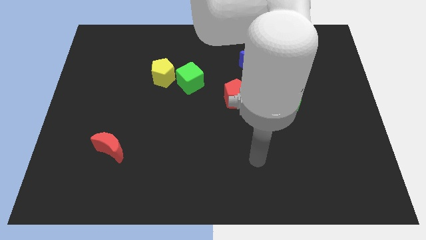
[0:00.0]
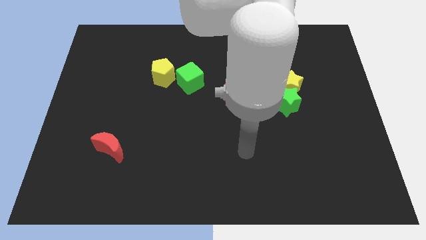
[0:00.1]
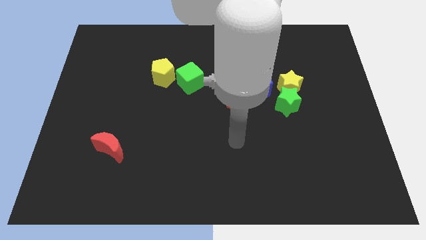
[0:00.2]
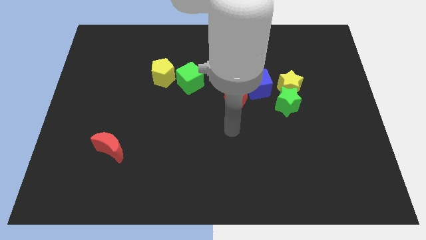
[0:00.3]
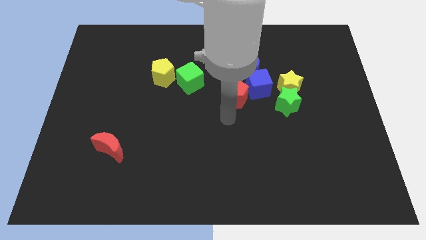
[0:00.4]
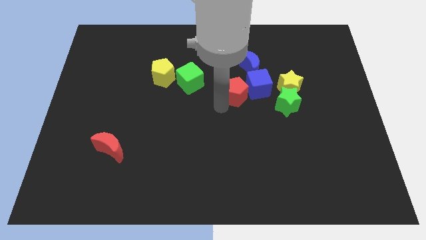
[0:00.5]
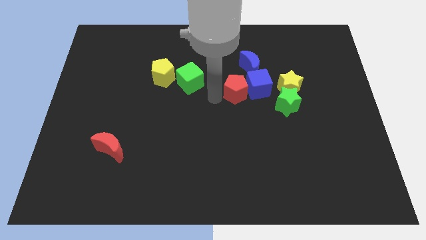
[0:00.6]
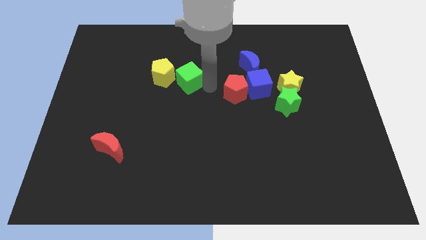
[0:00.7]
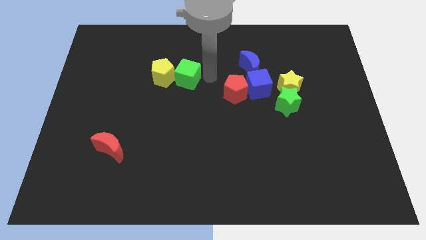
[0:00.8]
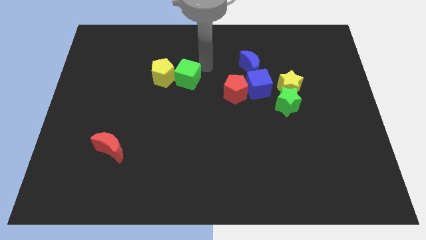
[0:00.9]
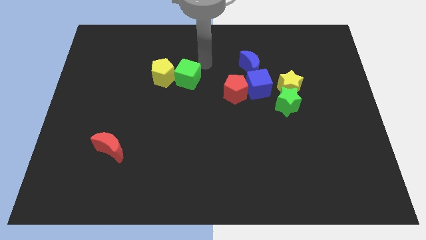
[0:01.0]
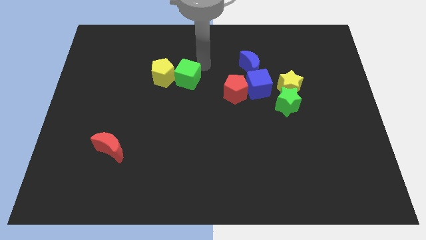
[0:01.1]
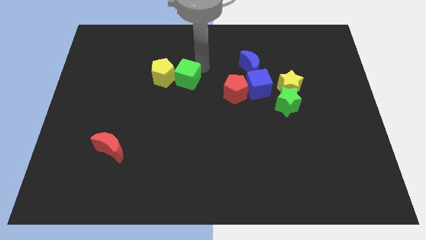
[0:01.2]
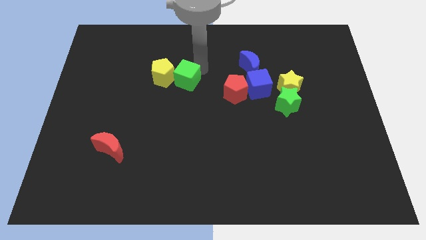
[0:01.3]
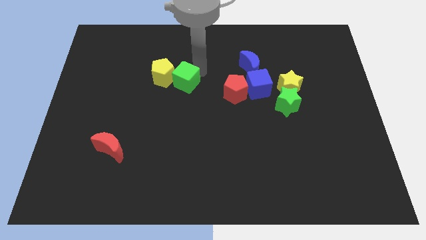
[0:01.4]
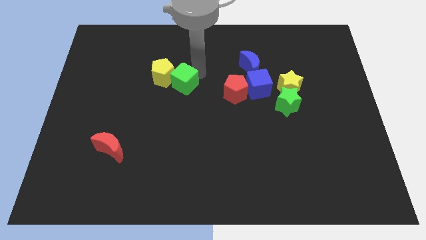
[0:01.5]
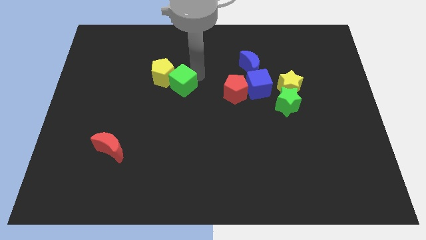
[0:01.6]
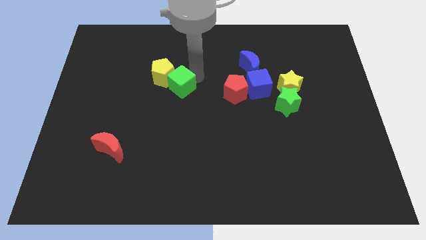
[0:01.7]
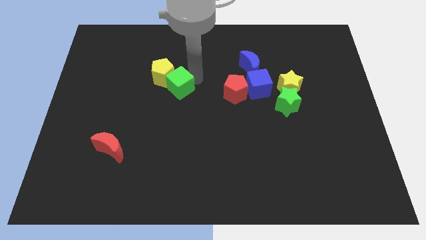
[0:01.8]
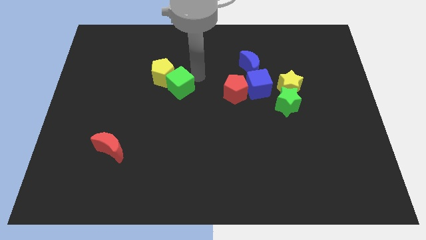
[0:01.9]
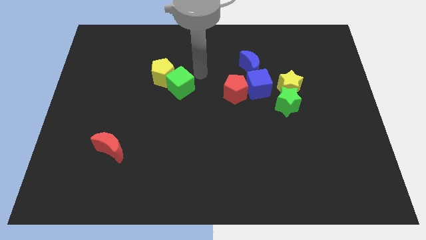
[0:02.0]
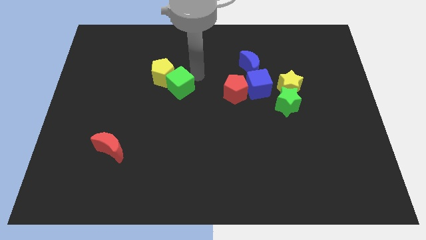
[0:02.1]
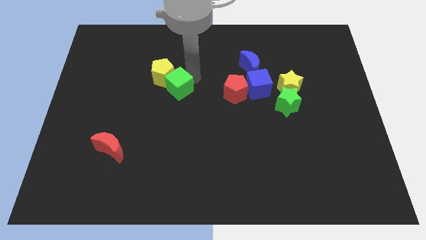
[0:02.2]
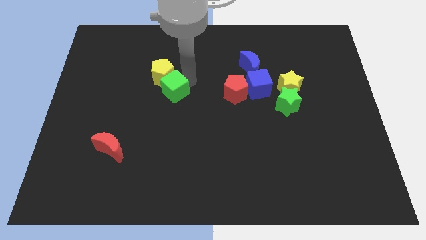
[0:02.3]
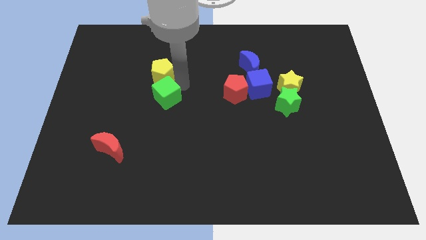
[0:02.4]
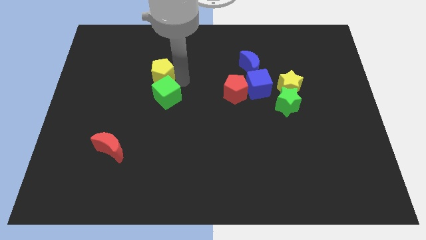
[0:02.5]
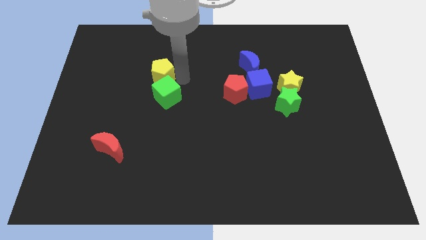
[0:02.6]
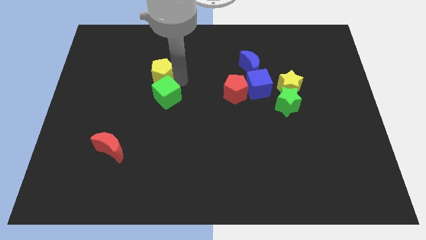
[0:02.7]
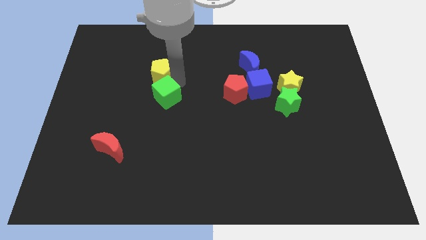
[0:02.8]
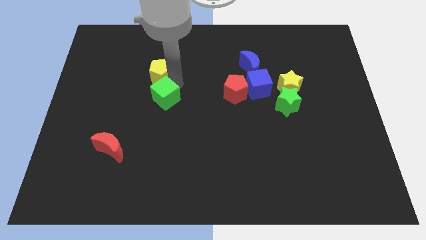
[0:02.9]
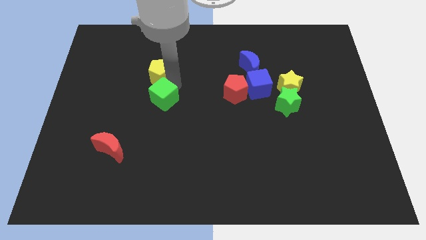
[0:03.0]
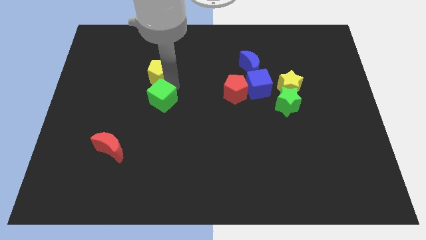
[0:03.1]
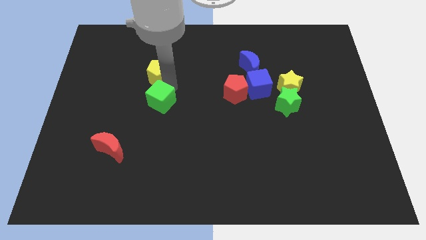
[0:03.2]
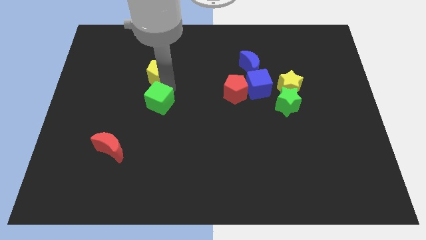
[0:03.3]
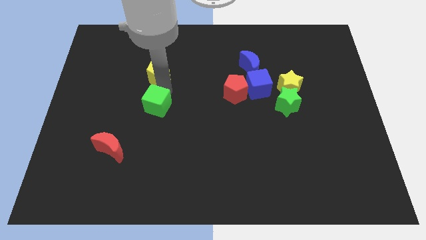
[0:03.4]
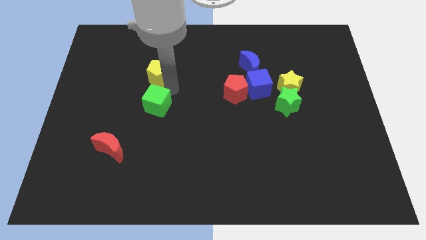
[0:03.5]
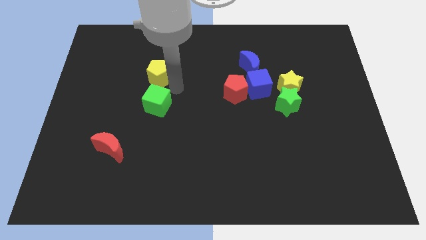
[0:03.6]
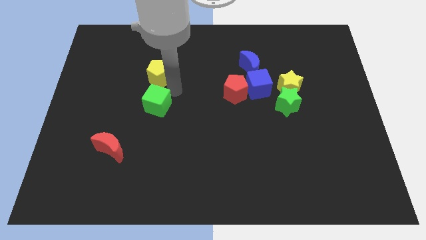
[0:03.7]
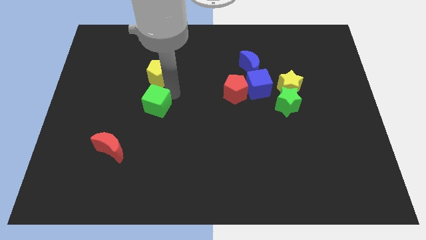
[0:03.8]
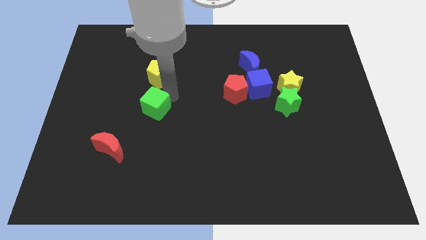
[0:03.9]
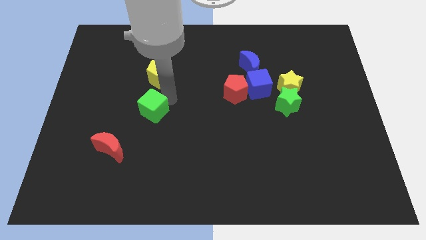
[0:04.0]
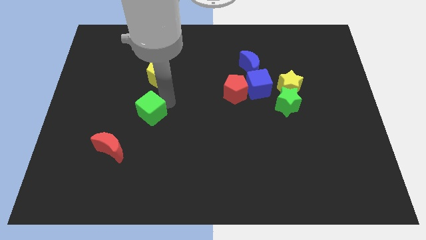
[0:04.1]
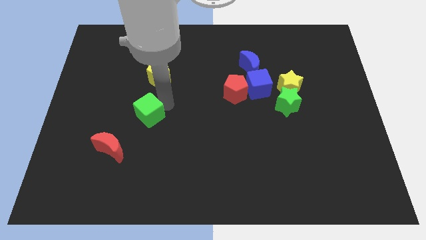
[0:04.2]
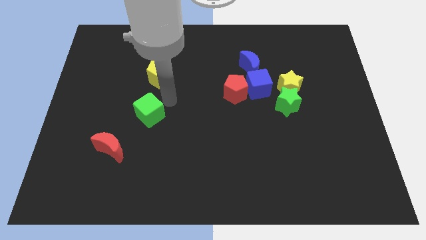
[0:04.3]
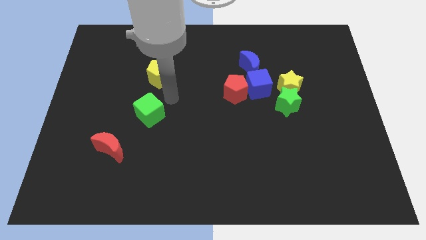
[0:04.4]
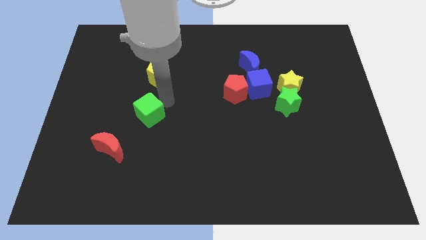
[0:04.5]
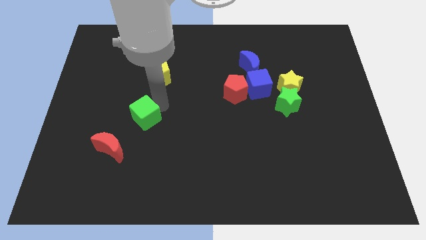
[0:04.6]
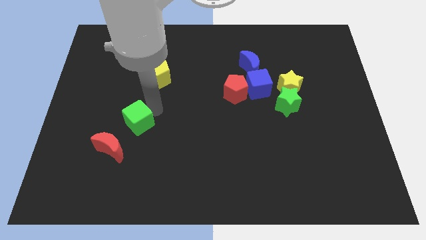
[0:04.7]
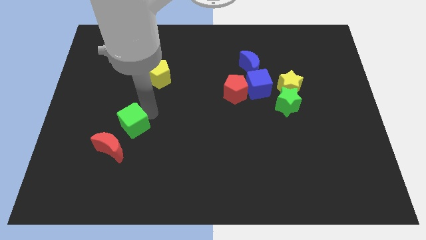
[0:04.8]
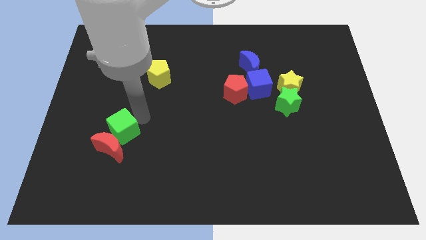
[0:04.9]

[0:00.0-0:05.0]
move the green cube next to the red moon

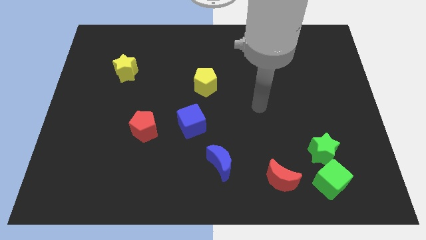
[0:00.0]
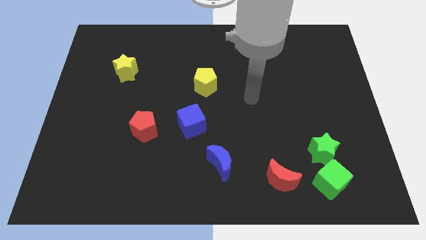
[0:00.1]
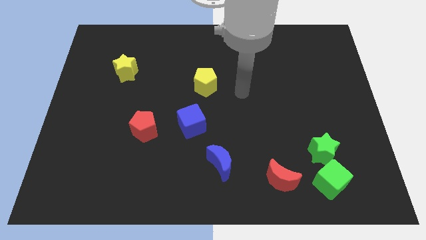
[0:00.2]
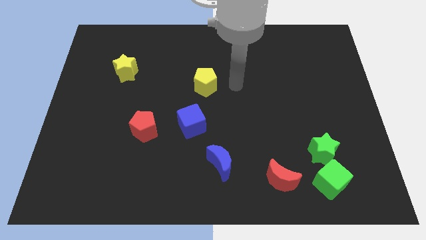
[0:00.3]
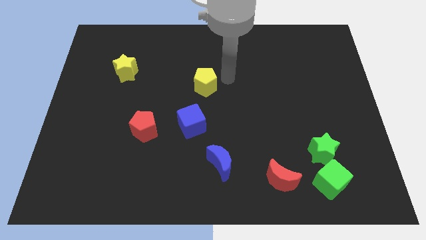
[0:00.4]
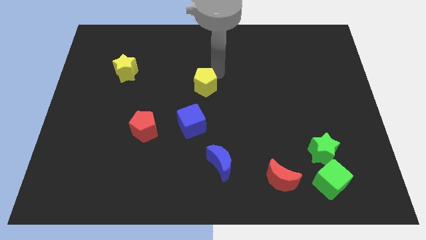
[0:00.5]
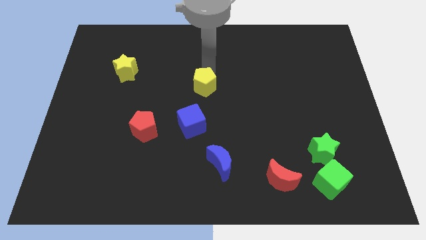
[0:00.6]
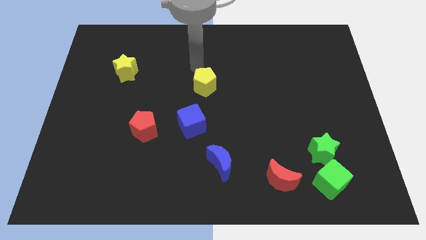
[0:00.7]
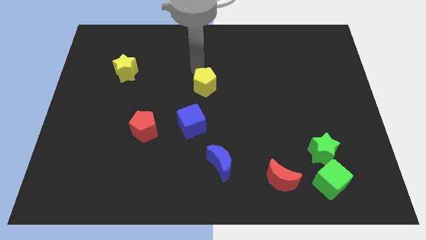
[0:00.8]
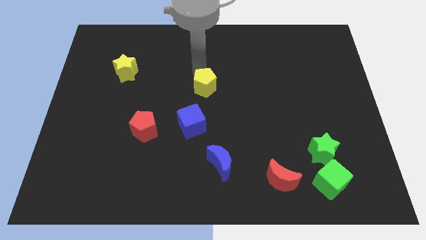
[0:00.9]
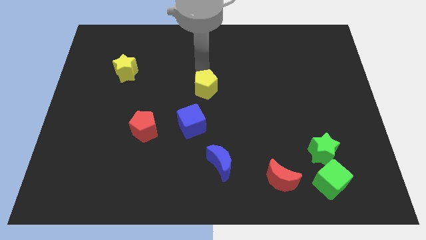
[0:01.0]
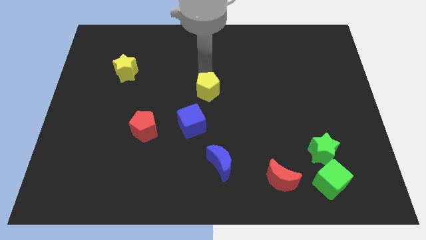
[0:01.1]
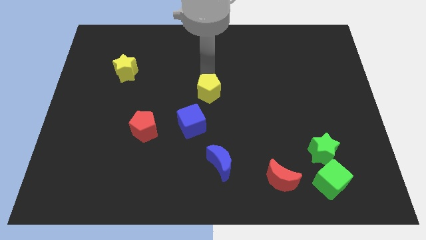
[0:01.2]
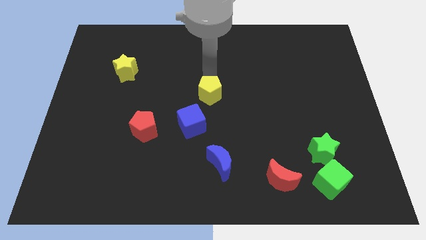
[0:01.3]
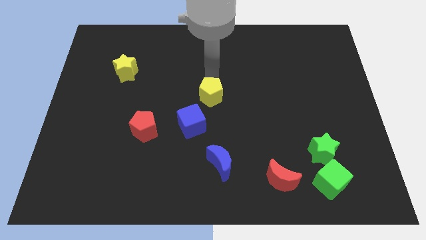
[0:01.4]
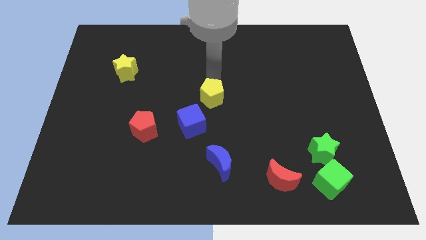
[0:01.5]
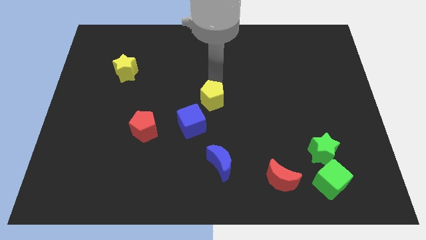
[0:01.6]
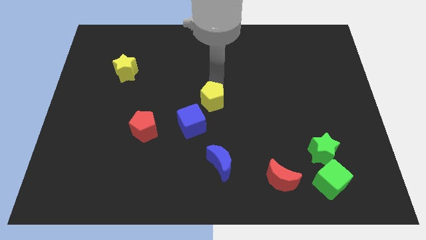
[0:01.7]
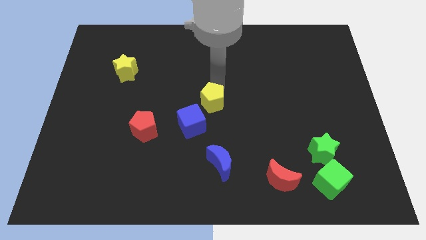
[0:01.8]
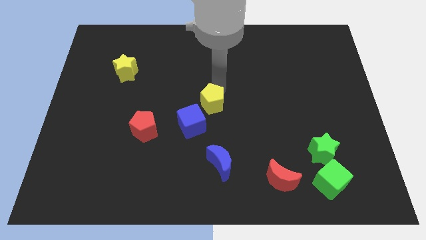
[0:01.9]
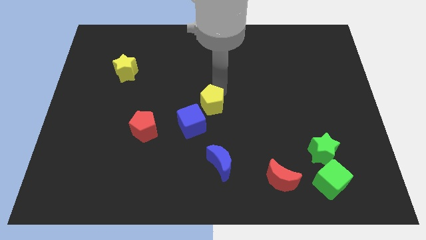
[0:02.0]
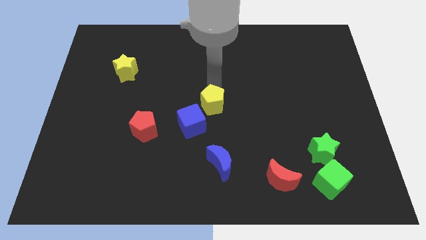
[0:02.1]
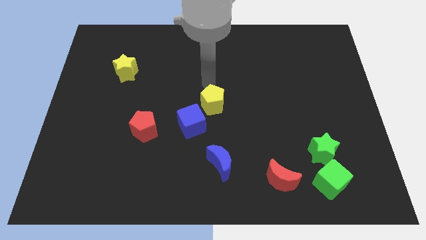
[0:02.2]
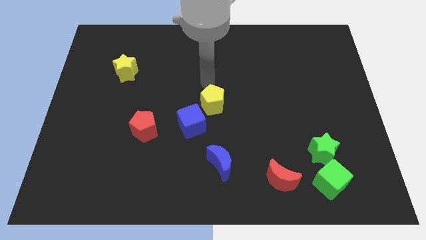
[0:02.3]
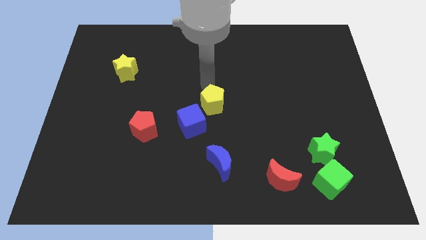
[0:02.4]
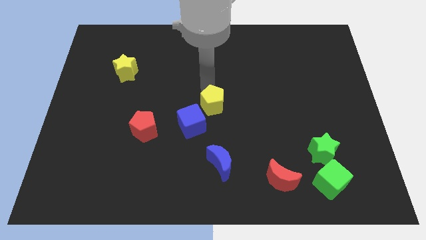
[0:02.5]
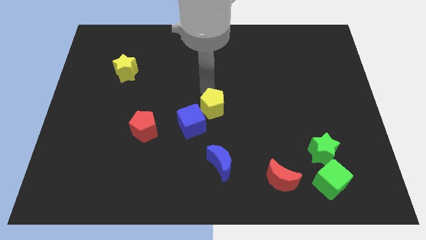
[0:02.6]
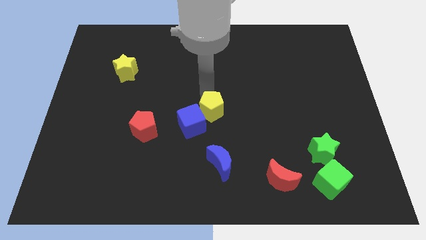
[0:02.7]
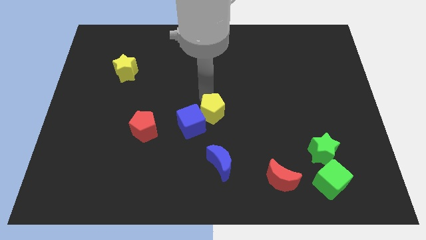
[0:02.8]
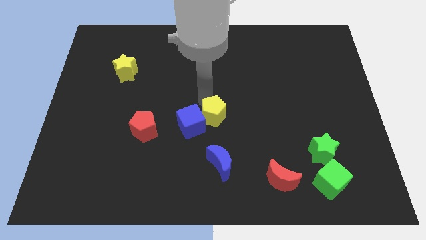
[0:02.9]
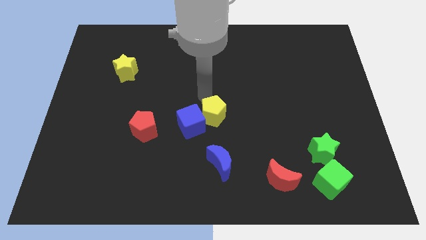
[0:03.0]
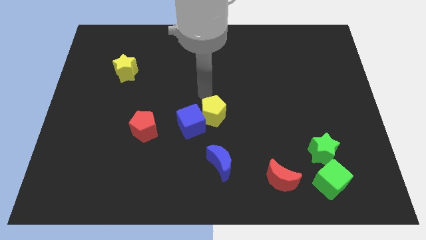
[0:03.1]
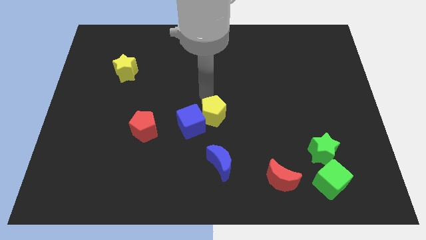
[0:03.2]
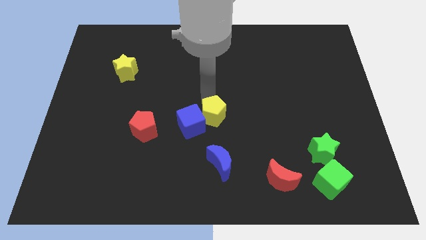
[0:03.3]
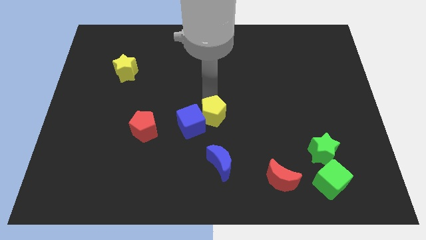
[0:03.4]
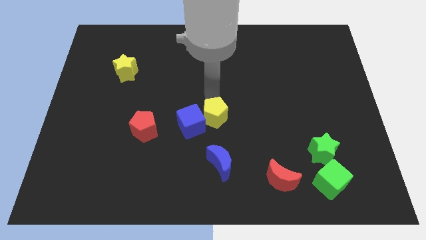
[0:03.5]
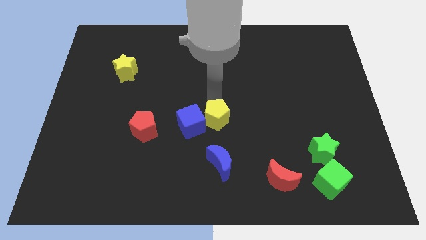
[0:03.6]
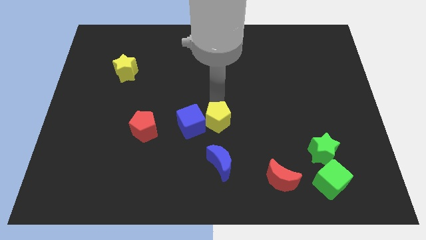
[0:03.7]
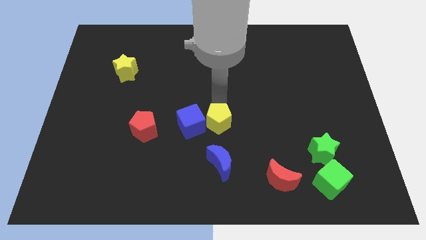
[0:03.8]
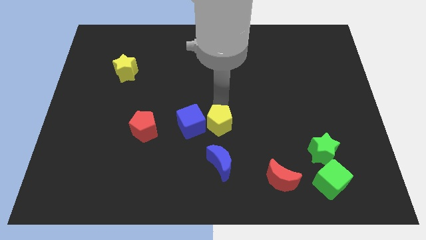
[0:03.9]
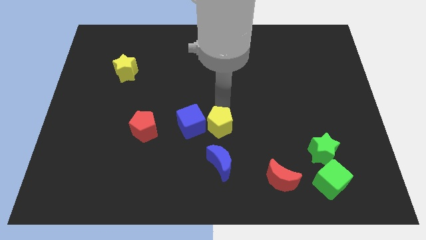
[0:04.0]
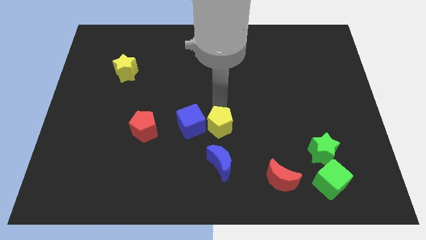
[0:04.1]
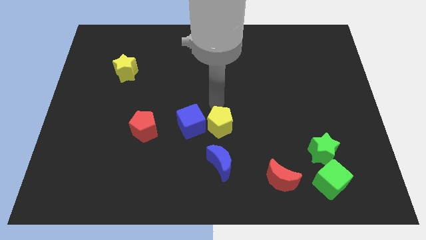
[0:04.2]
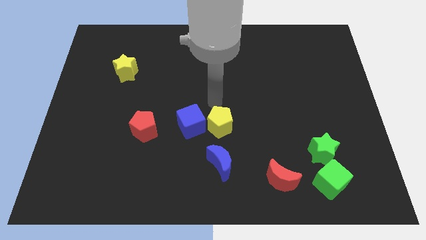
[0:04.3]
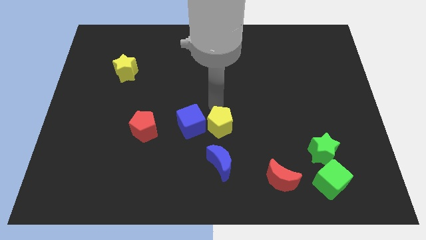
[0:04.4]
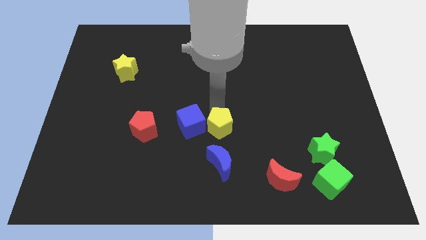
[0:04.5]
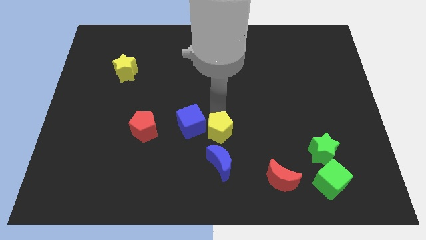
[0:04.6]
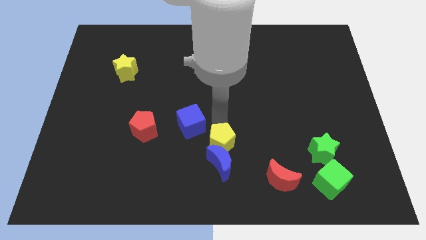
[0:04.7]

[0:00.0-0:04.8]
push the yellow pentagon to the blue moon
